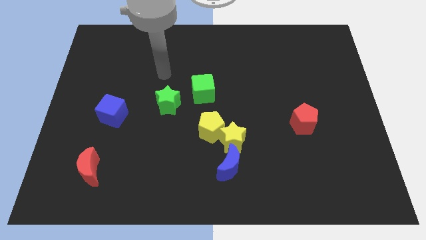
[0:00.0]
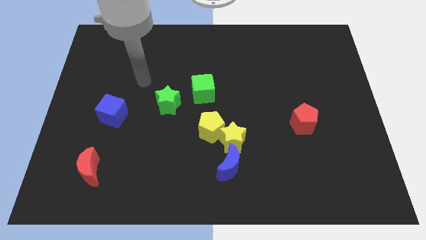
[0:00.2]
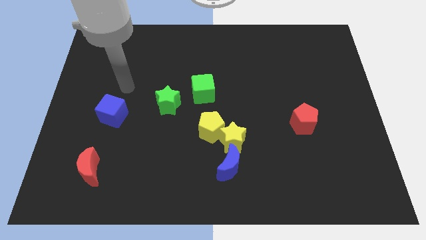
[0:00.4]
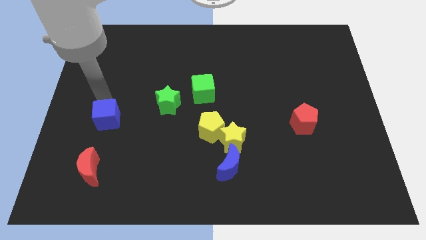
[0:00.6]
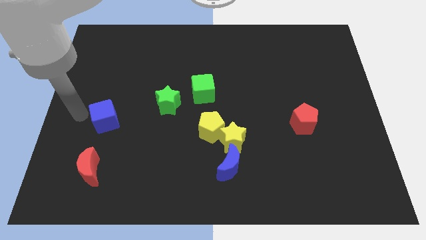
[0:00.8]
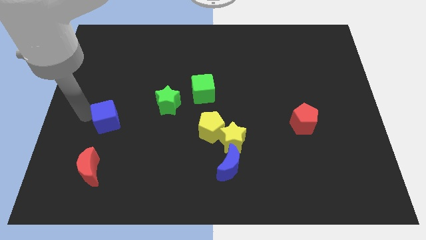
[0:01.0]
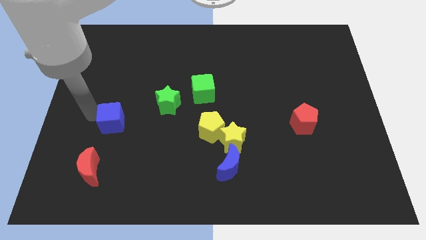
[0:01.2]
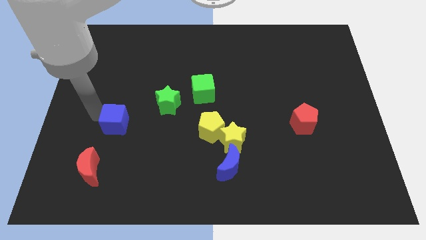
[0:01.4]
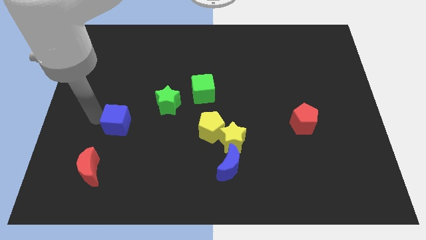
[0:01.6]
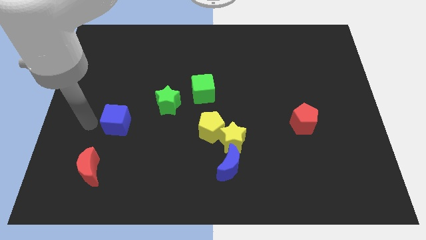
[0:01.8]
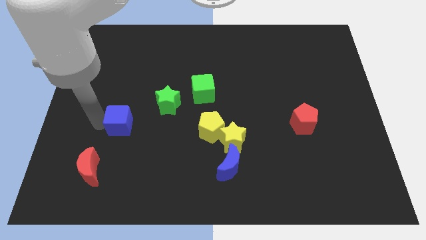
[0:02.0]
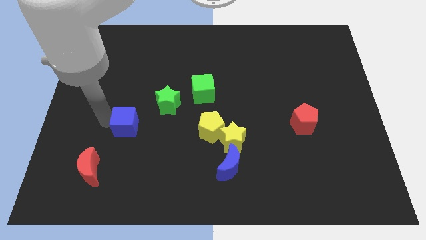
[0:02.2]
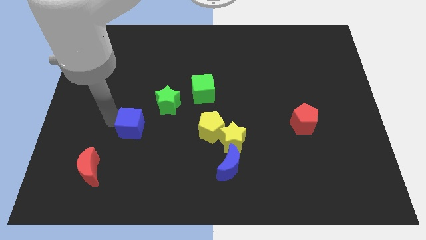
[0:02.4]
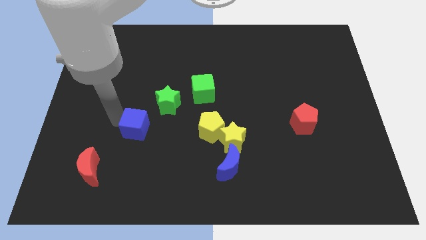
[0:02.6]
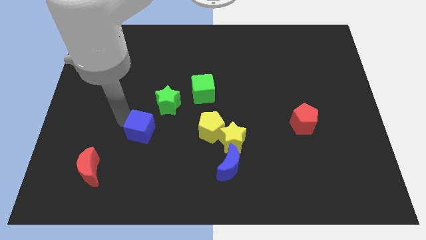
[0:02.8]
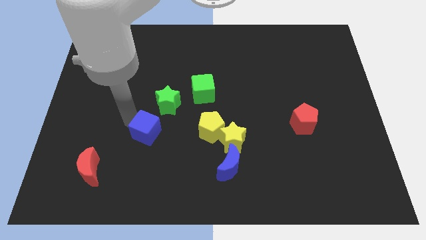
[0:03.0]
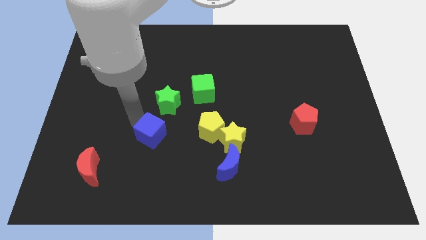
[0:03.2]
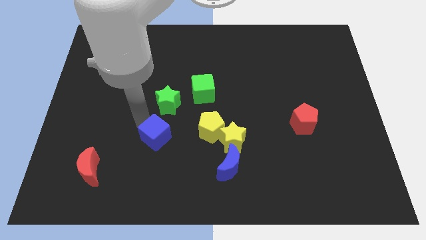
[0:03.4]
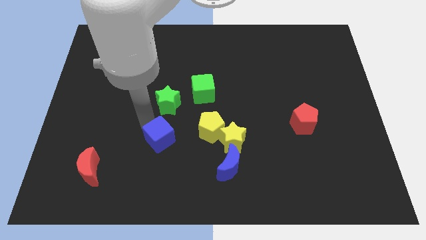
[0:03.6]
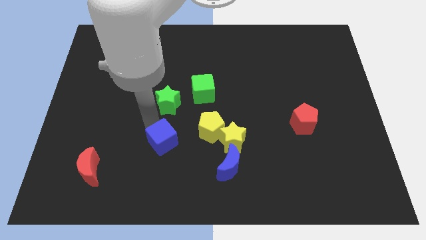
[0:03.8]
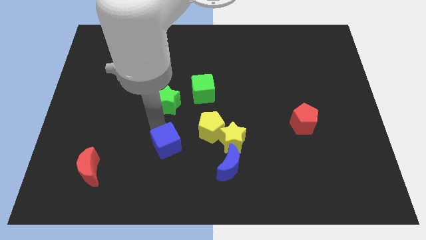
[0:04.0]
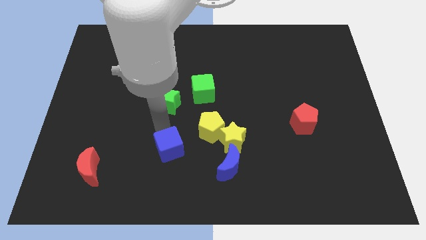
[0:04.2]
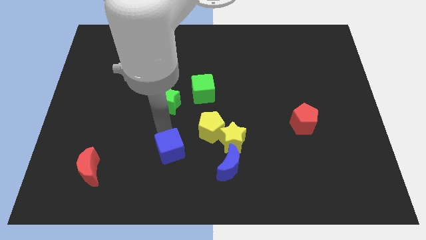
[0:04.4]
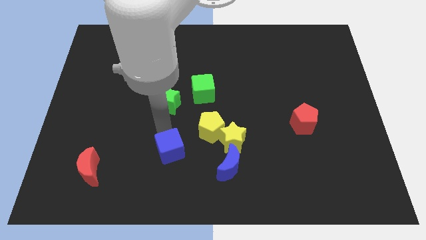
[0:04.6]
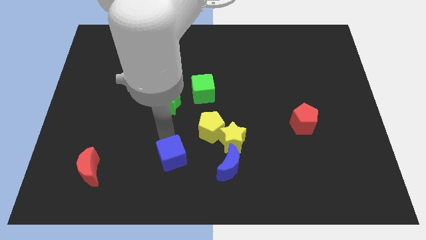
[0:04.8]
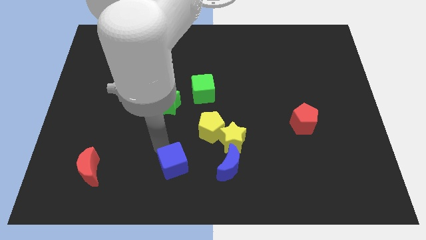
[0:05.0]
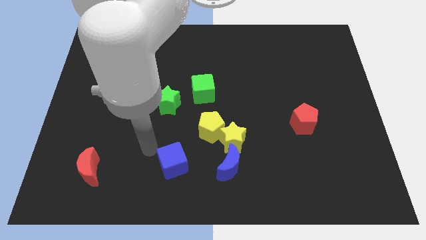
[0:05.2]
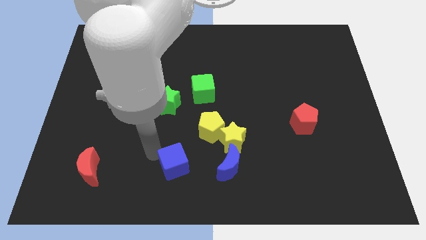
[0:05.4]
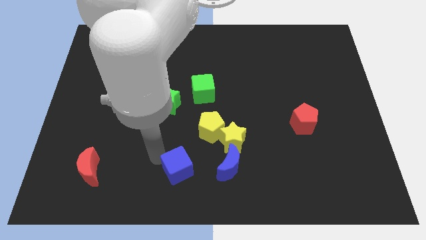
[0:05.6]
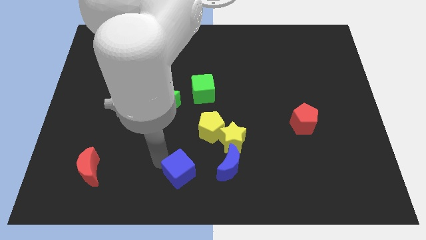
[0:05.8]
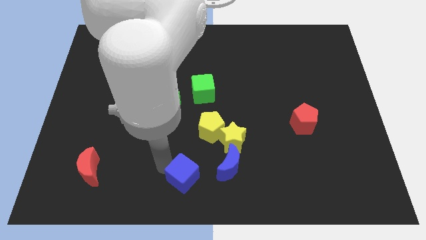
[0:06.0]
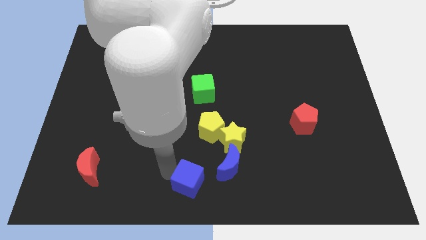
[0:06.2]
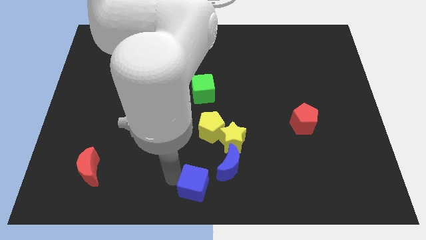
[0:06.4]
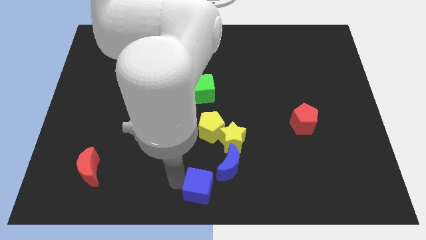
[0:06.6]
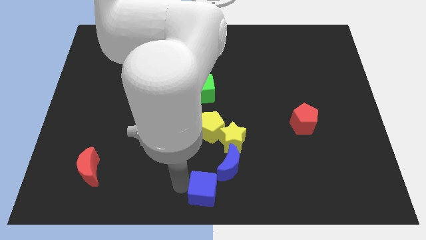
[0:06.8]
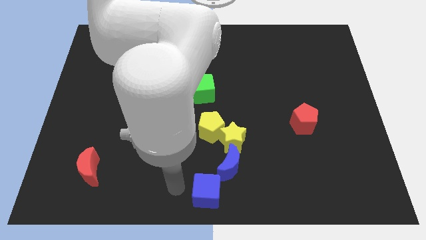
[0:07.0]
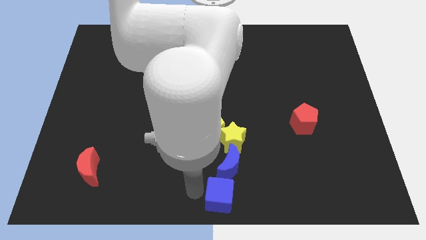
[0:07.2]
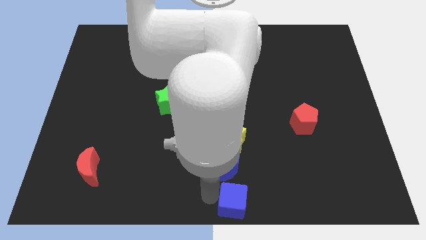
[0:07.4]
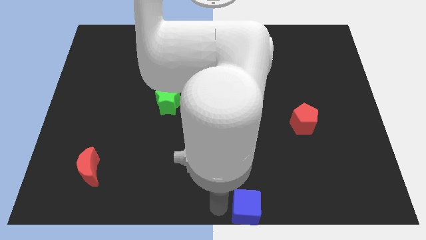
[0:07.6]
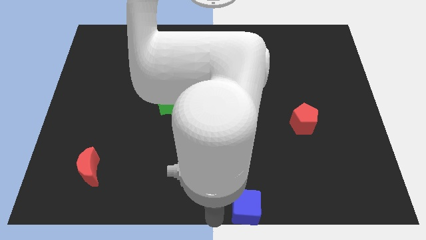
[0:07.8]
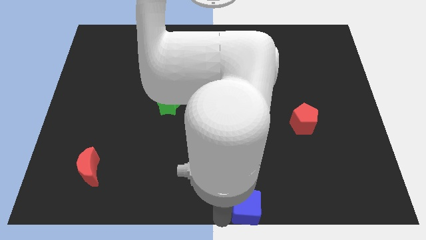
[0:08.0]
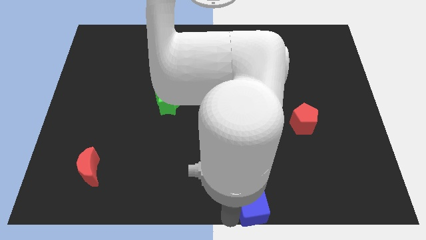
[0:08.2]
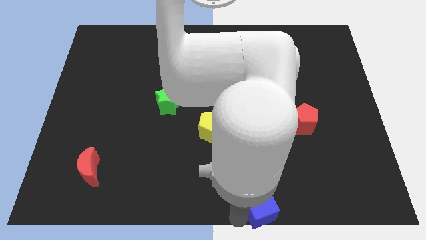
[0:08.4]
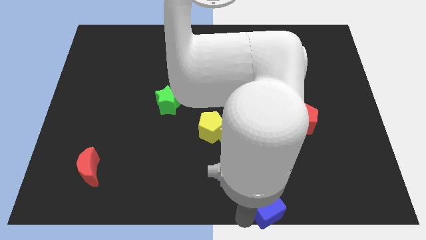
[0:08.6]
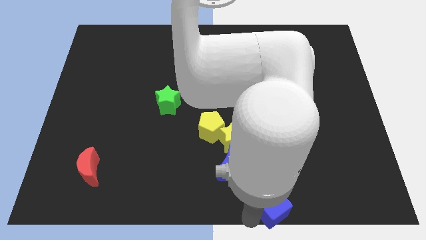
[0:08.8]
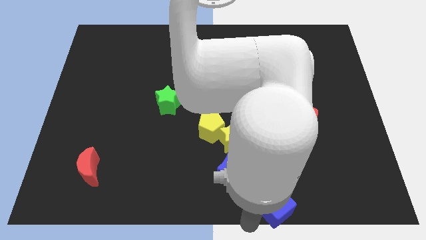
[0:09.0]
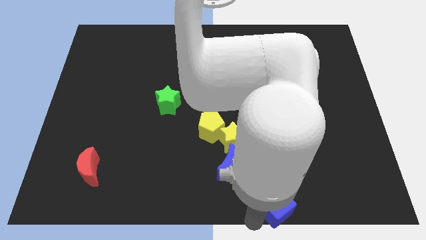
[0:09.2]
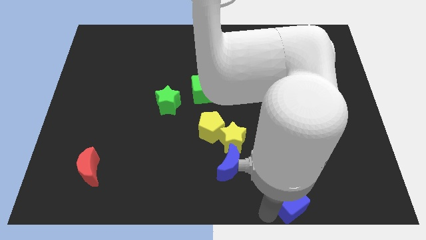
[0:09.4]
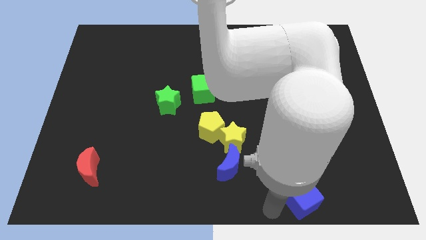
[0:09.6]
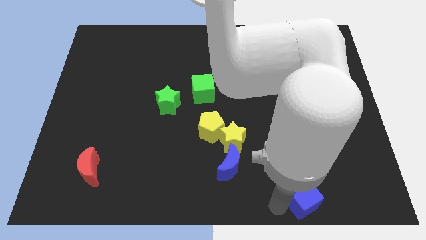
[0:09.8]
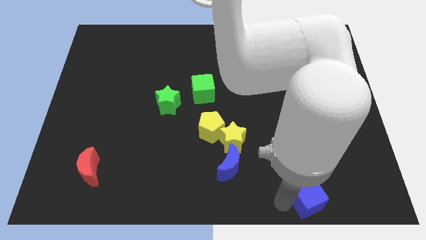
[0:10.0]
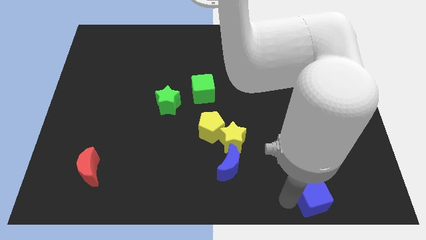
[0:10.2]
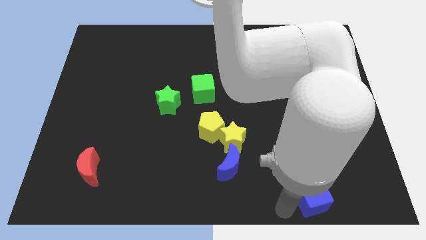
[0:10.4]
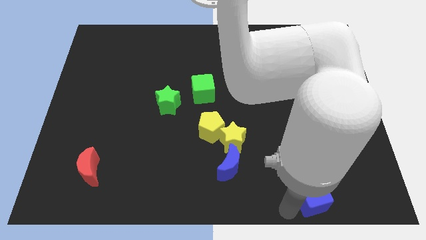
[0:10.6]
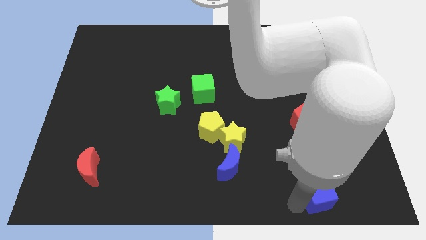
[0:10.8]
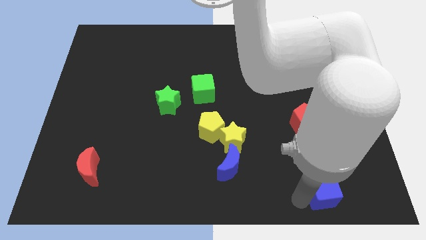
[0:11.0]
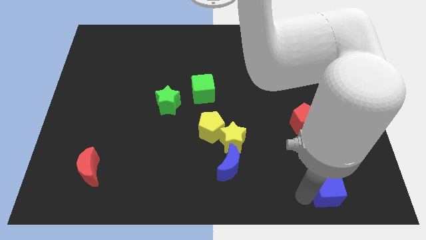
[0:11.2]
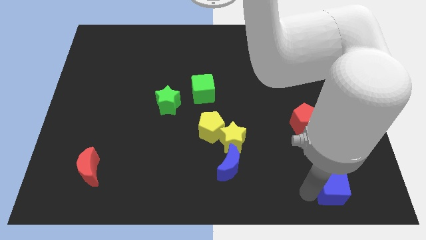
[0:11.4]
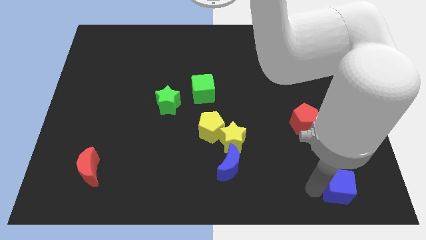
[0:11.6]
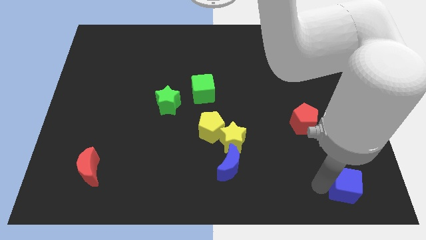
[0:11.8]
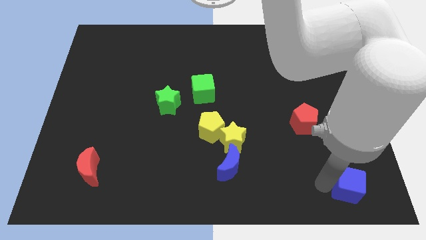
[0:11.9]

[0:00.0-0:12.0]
move the blue cube to the bottom right
